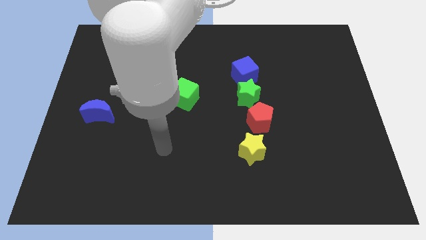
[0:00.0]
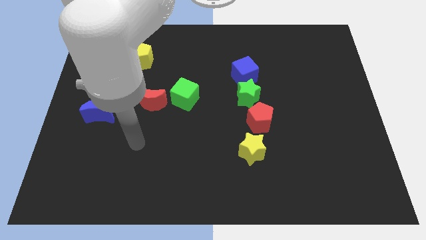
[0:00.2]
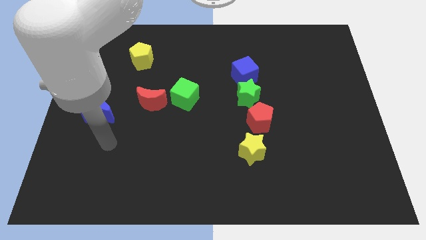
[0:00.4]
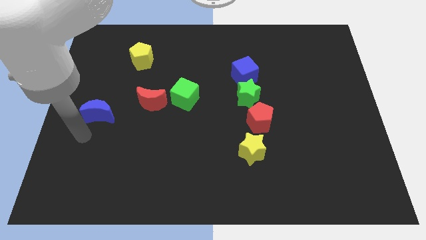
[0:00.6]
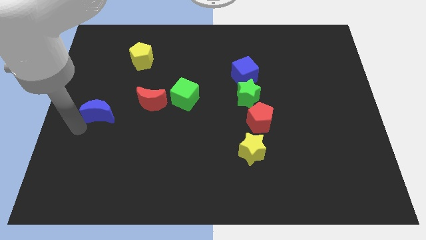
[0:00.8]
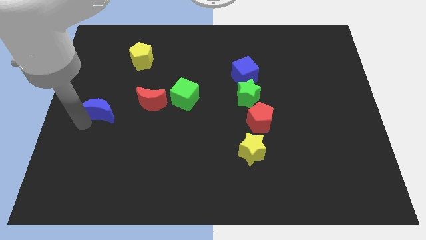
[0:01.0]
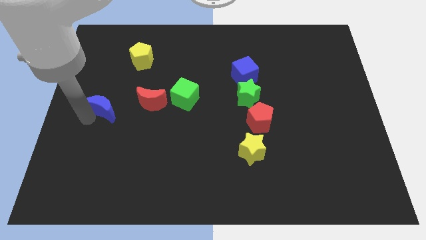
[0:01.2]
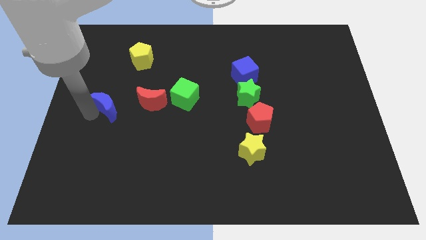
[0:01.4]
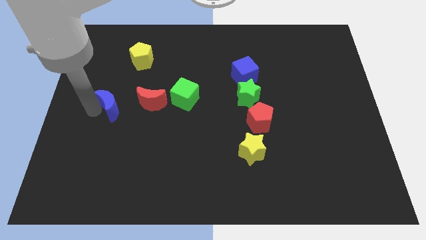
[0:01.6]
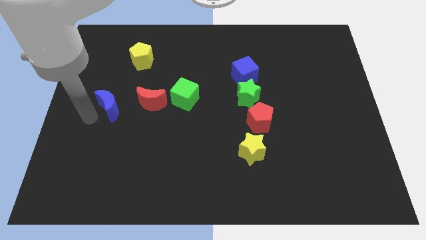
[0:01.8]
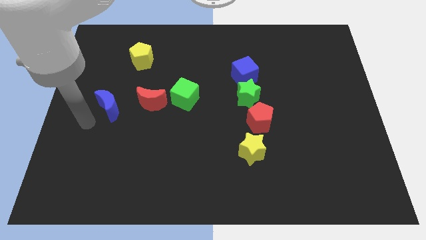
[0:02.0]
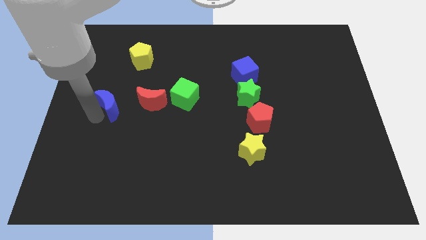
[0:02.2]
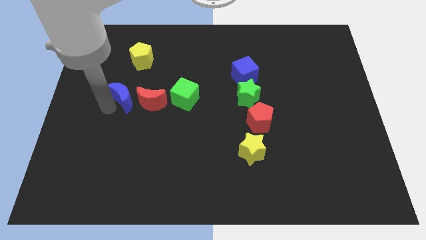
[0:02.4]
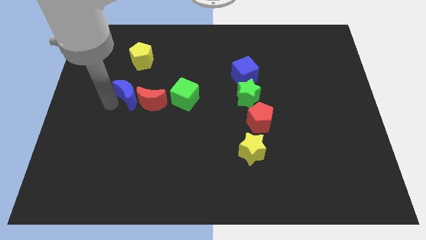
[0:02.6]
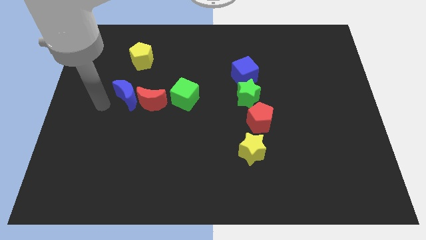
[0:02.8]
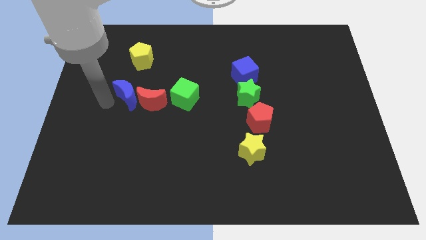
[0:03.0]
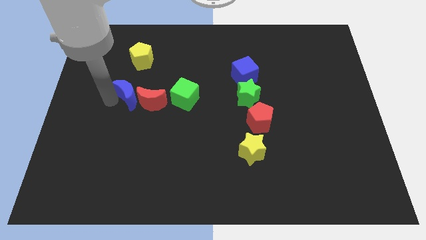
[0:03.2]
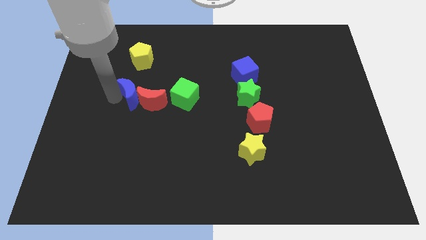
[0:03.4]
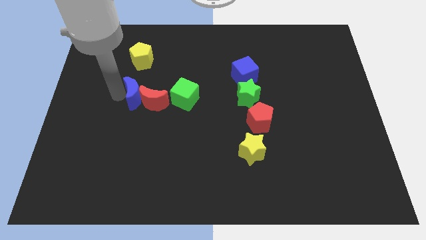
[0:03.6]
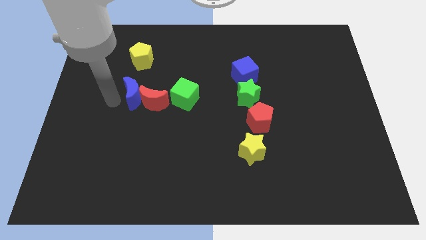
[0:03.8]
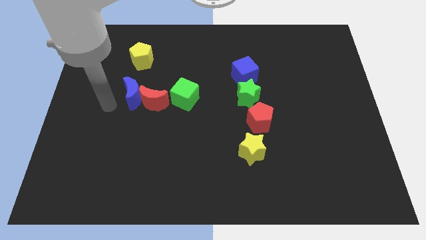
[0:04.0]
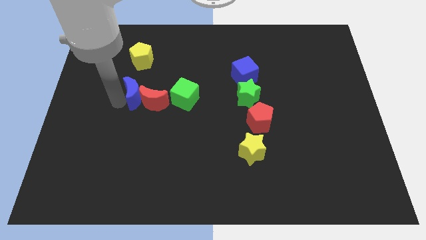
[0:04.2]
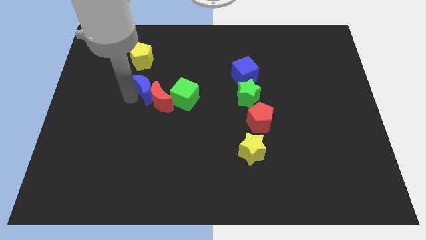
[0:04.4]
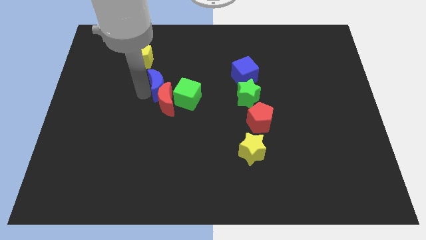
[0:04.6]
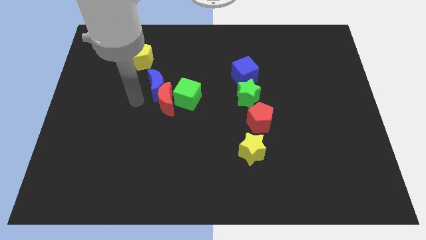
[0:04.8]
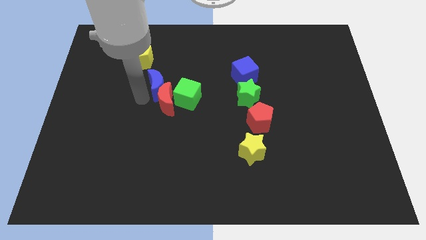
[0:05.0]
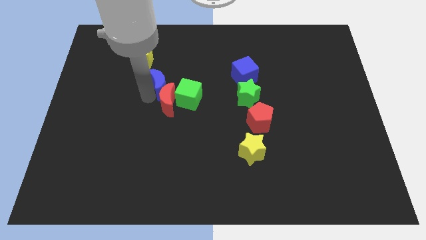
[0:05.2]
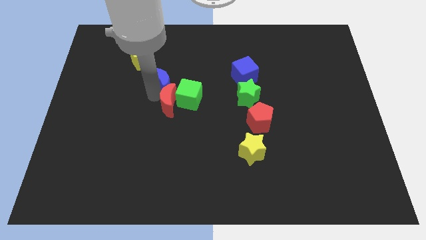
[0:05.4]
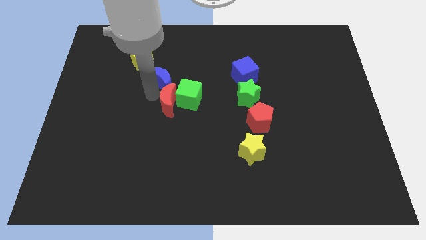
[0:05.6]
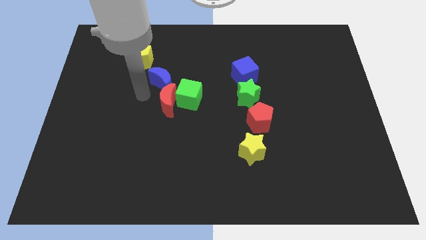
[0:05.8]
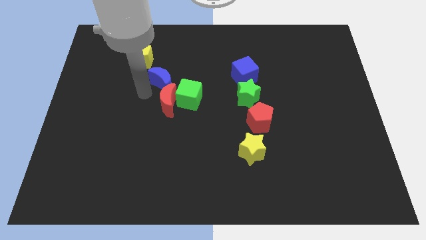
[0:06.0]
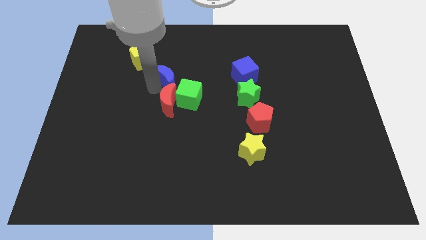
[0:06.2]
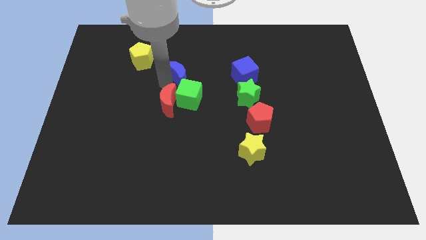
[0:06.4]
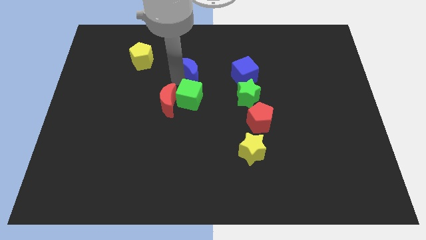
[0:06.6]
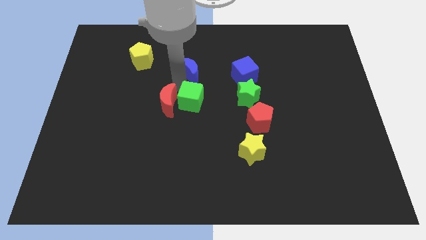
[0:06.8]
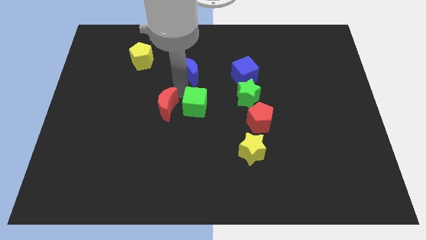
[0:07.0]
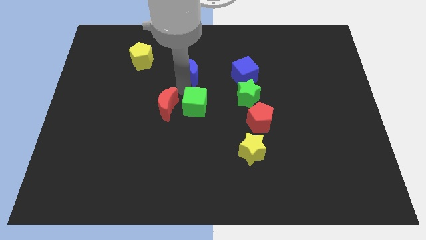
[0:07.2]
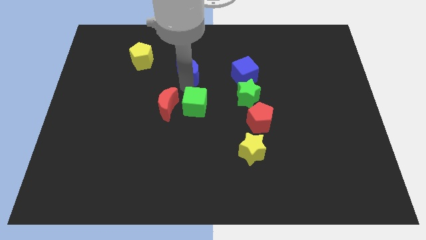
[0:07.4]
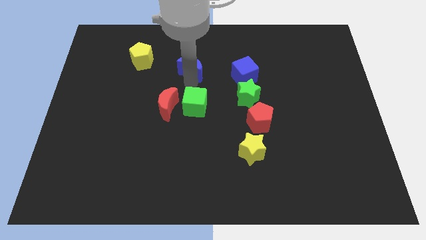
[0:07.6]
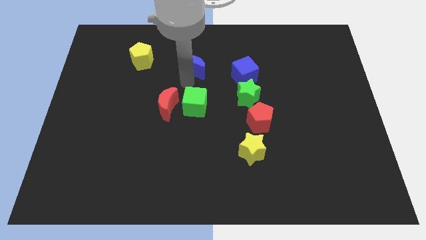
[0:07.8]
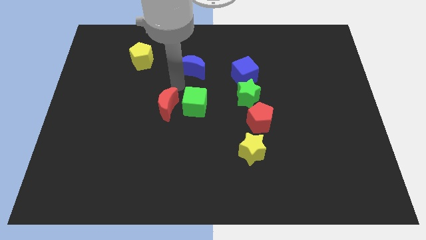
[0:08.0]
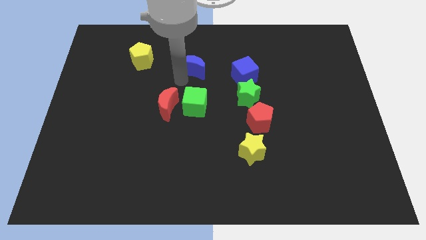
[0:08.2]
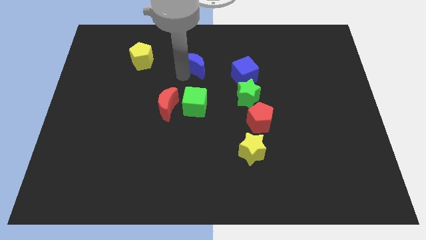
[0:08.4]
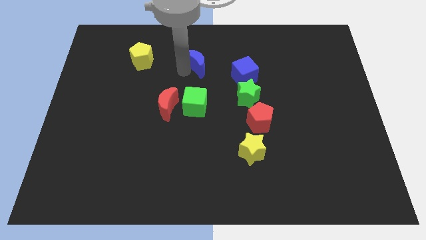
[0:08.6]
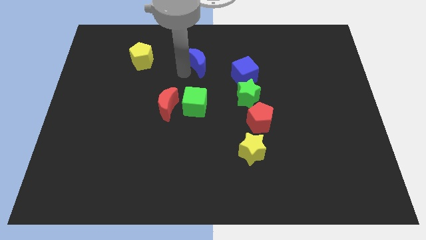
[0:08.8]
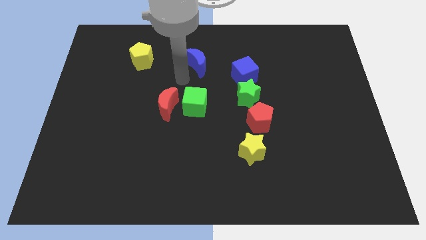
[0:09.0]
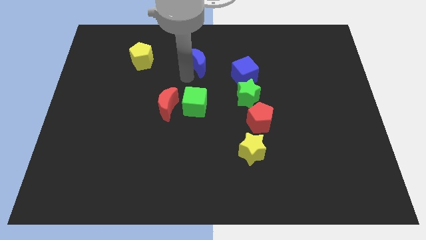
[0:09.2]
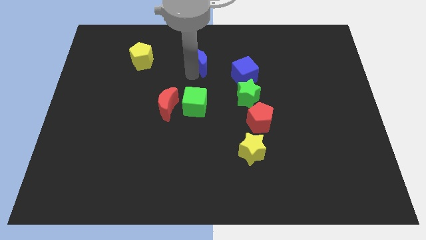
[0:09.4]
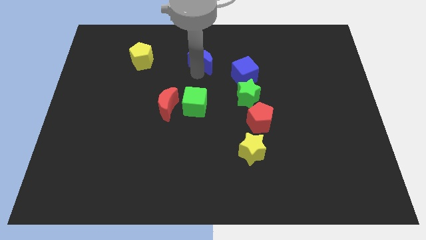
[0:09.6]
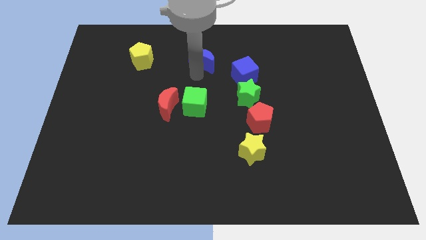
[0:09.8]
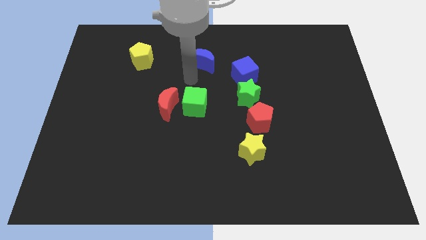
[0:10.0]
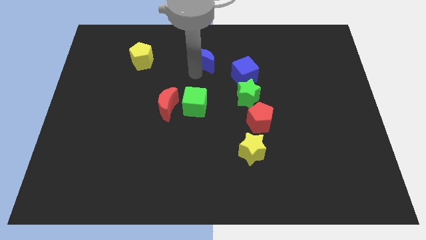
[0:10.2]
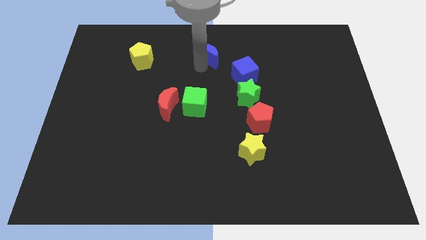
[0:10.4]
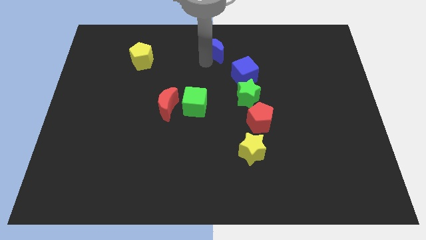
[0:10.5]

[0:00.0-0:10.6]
slide the blue moon to the towards your base
